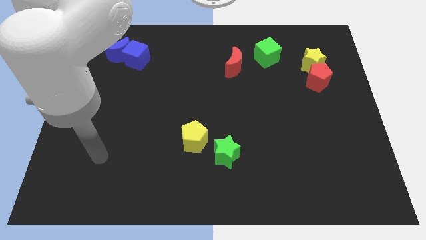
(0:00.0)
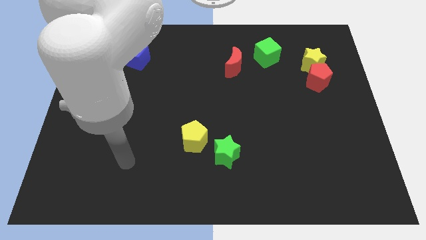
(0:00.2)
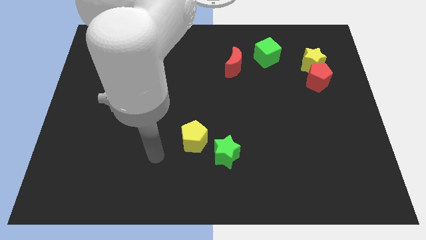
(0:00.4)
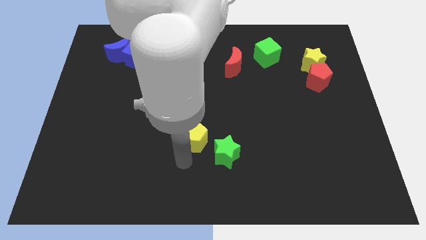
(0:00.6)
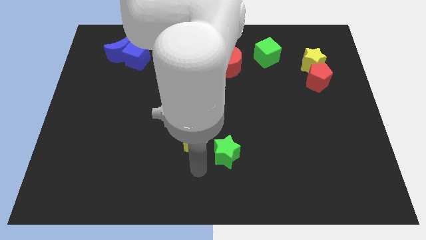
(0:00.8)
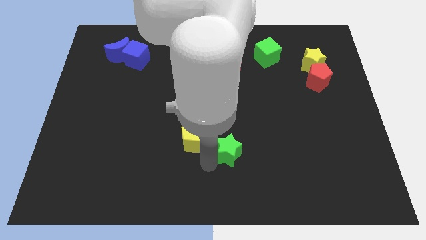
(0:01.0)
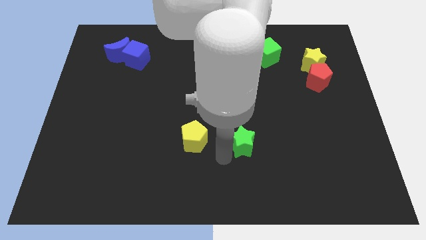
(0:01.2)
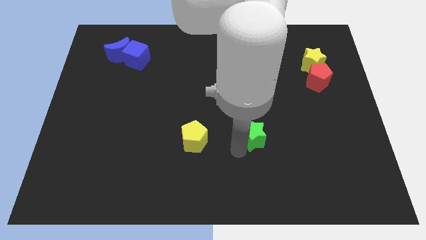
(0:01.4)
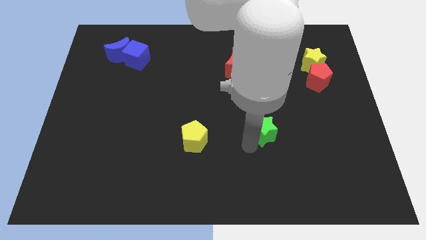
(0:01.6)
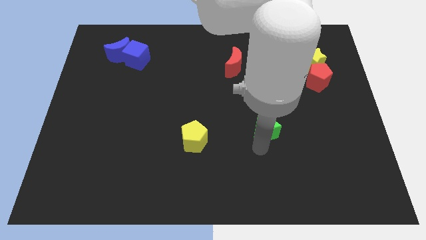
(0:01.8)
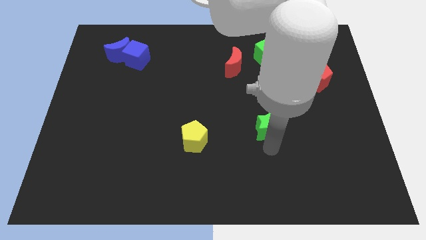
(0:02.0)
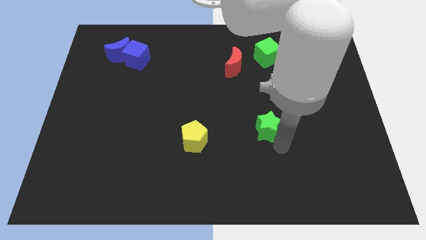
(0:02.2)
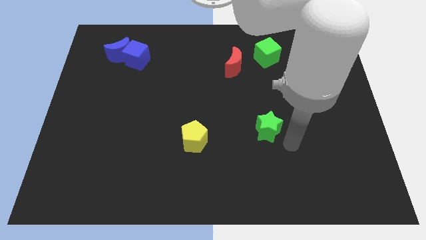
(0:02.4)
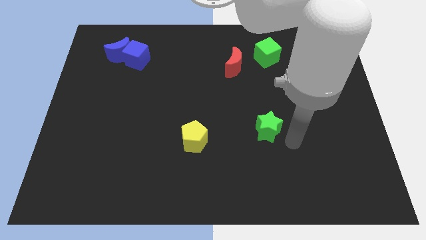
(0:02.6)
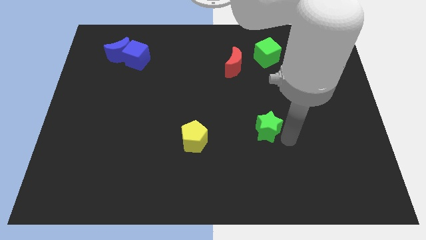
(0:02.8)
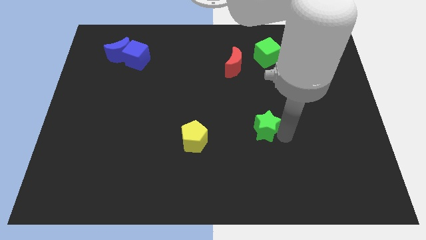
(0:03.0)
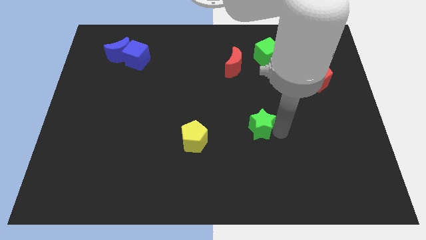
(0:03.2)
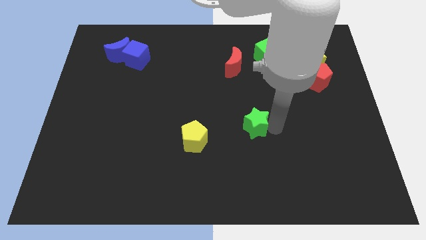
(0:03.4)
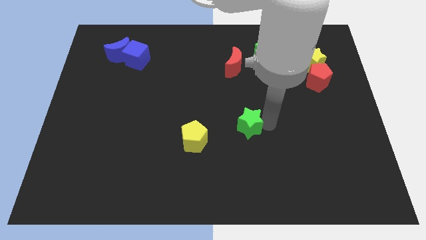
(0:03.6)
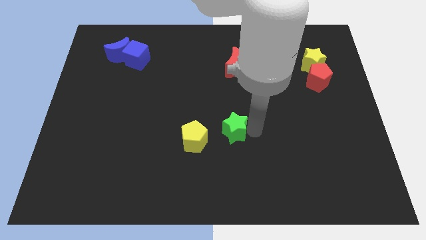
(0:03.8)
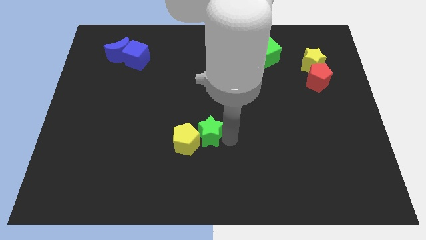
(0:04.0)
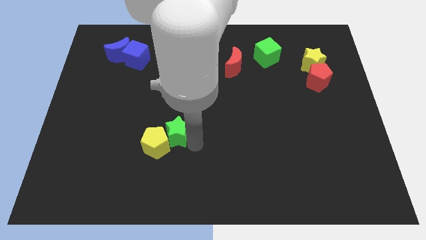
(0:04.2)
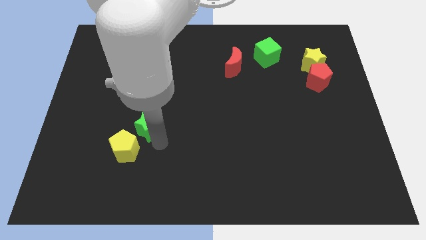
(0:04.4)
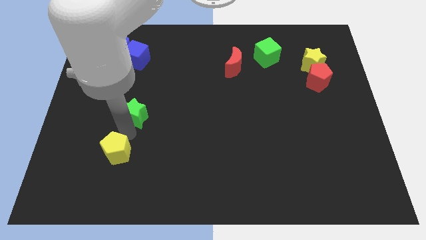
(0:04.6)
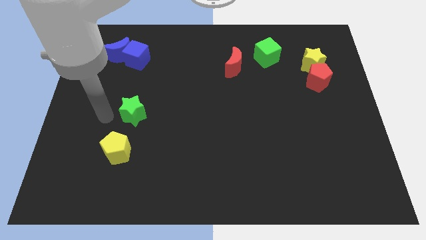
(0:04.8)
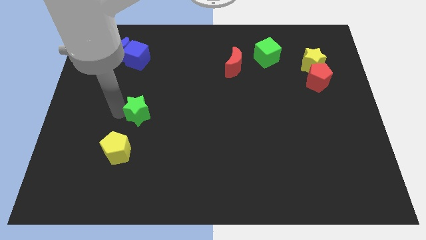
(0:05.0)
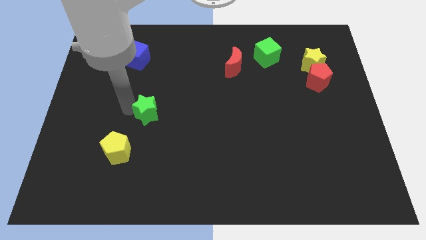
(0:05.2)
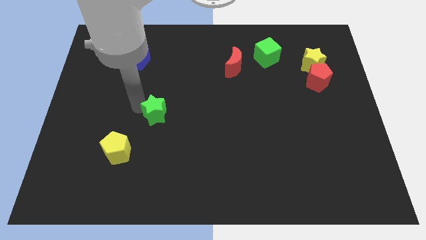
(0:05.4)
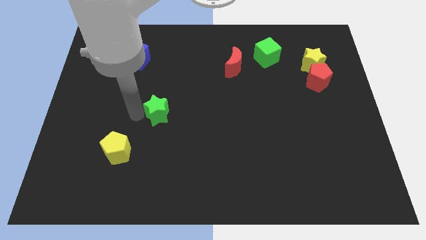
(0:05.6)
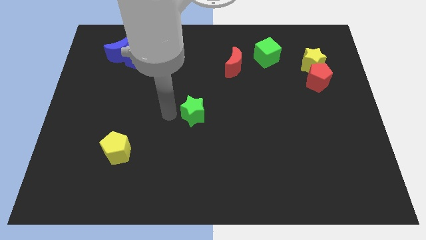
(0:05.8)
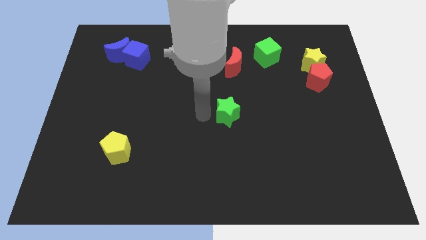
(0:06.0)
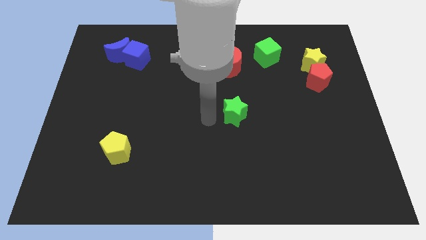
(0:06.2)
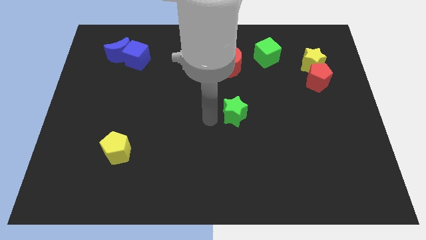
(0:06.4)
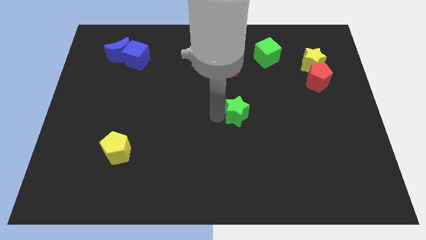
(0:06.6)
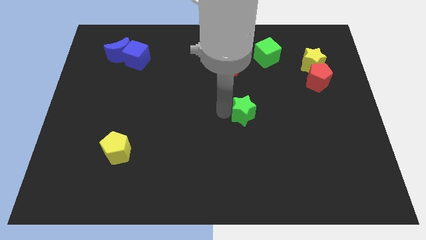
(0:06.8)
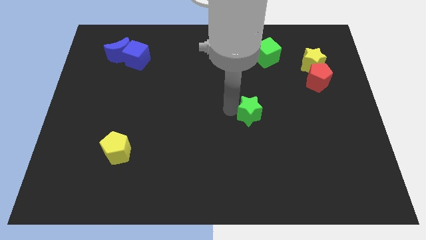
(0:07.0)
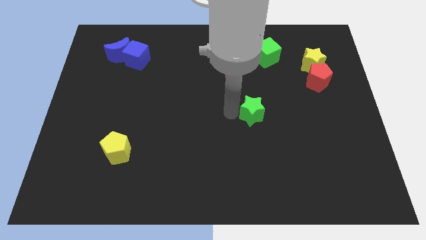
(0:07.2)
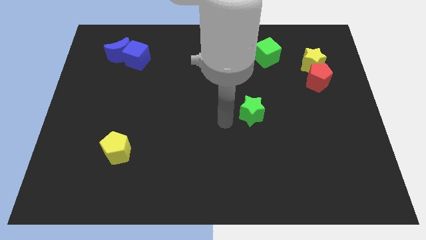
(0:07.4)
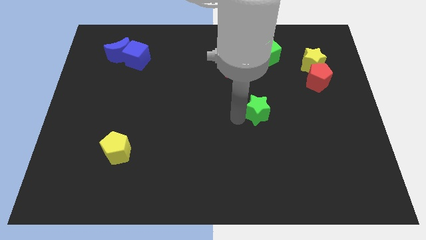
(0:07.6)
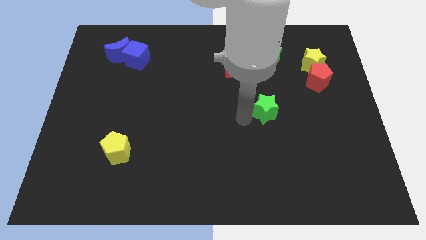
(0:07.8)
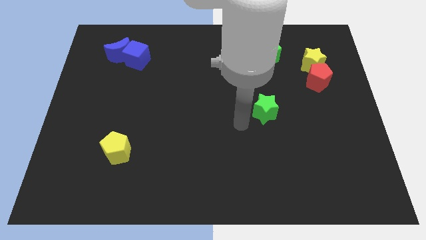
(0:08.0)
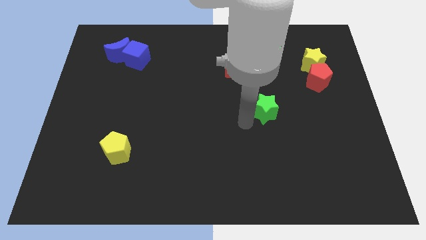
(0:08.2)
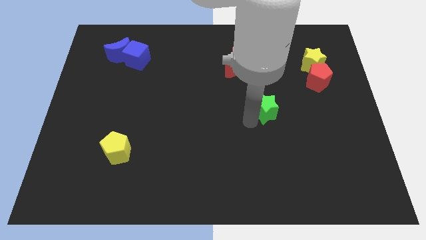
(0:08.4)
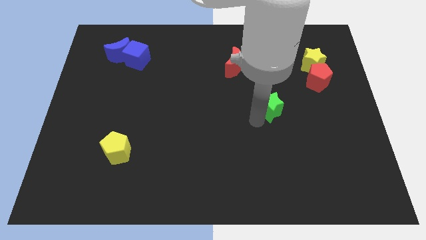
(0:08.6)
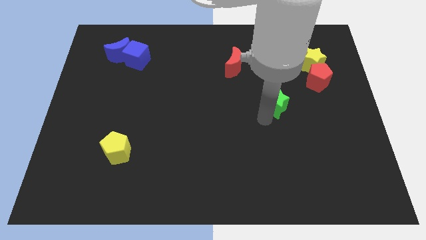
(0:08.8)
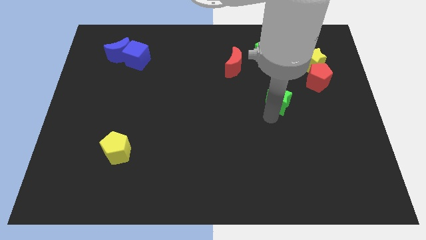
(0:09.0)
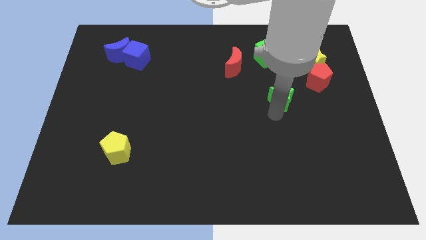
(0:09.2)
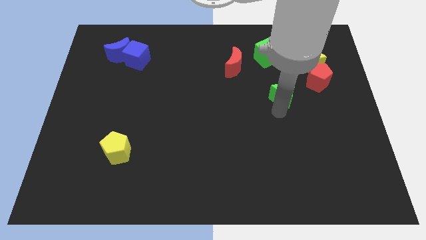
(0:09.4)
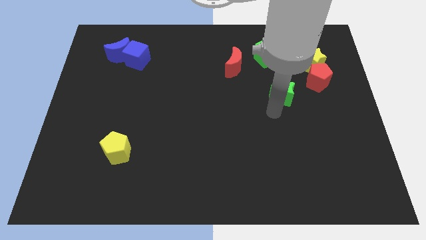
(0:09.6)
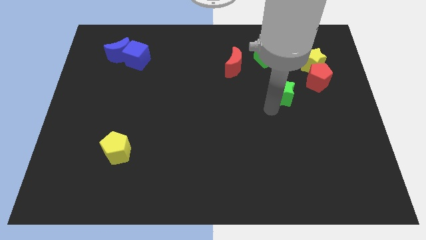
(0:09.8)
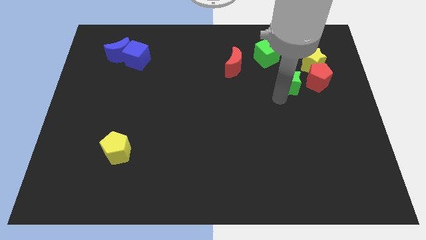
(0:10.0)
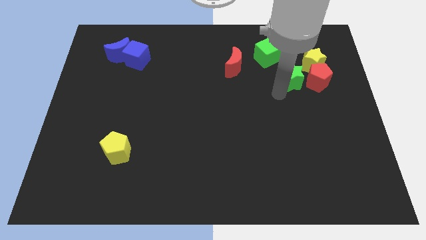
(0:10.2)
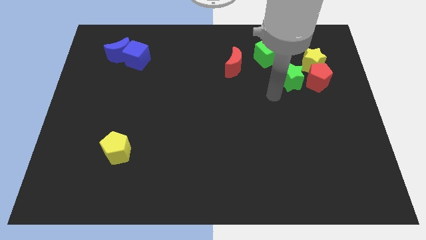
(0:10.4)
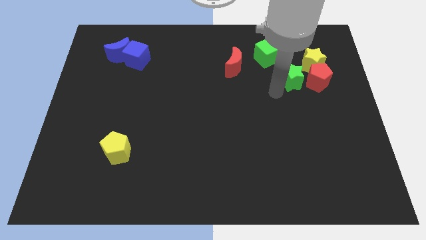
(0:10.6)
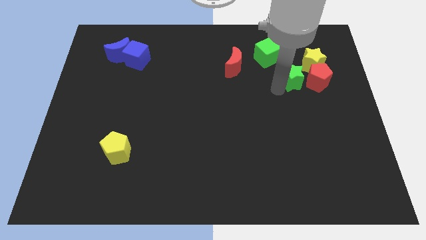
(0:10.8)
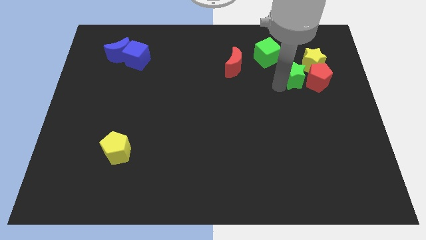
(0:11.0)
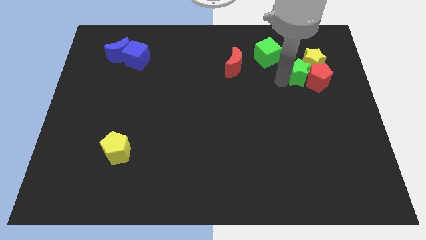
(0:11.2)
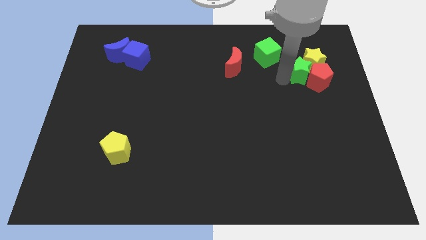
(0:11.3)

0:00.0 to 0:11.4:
move the green star to the yellow star

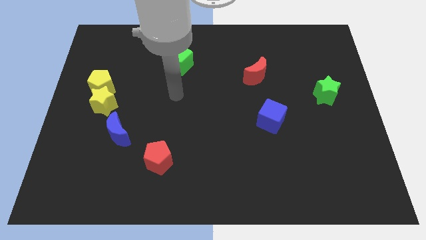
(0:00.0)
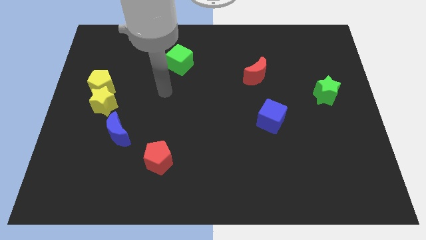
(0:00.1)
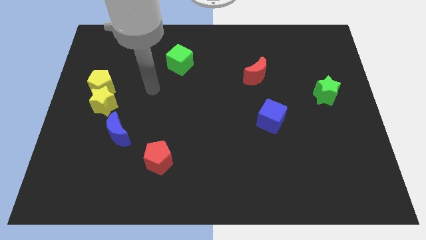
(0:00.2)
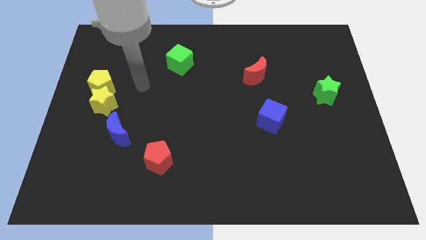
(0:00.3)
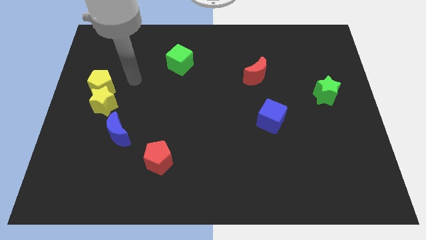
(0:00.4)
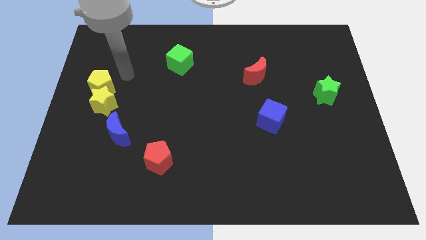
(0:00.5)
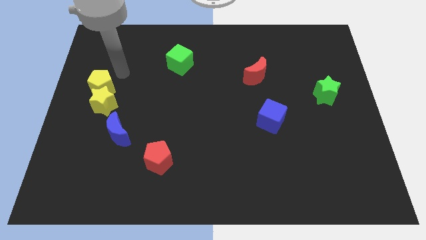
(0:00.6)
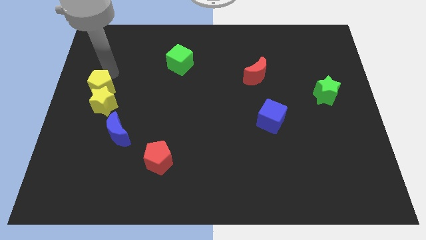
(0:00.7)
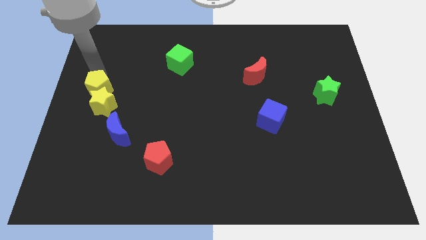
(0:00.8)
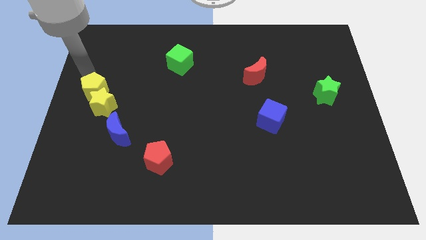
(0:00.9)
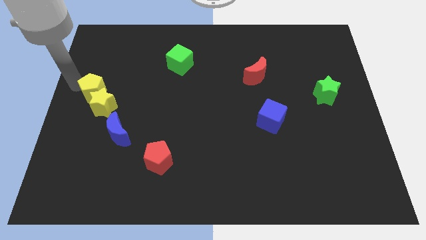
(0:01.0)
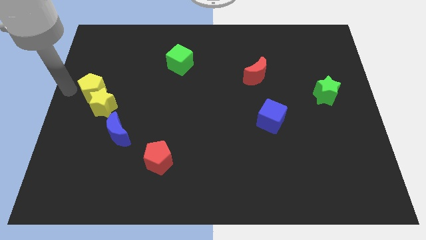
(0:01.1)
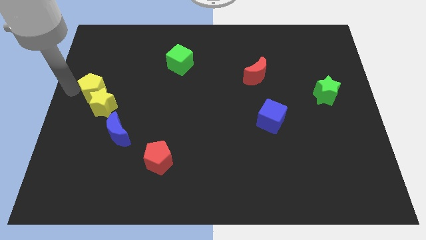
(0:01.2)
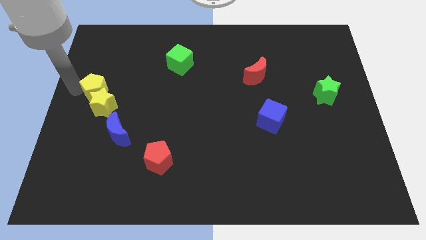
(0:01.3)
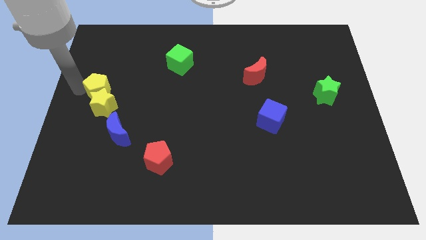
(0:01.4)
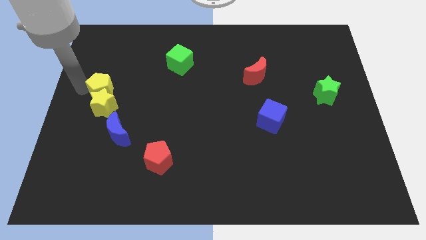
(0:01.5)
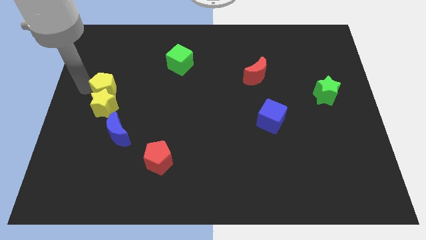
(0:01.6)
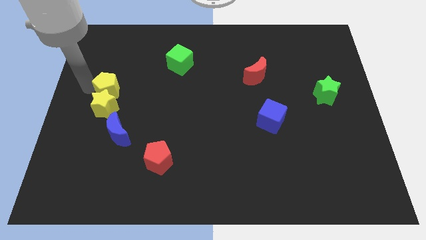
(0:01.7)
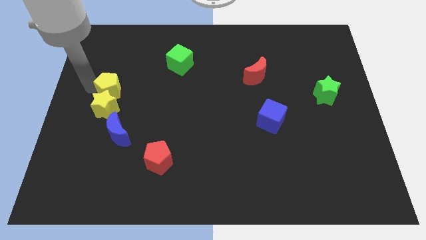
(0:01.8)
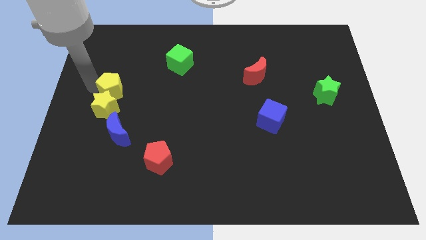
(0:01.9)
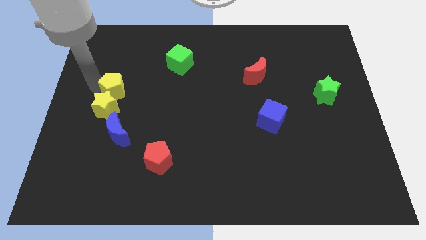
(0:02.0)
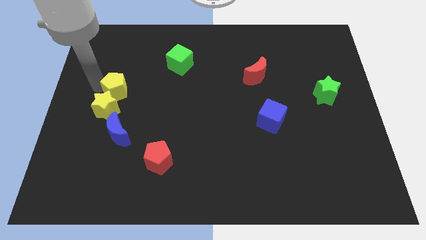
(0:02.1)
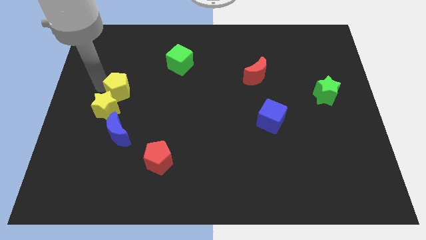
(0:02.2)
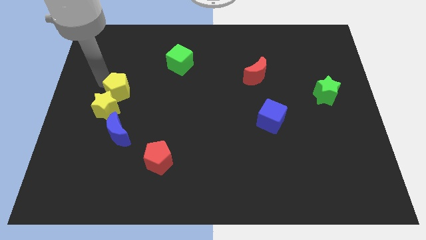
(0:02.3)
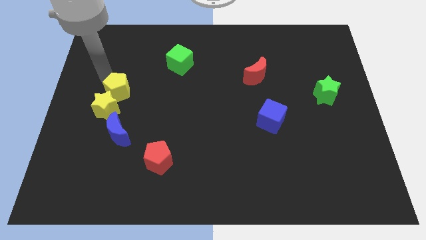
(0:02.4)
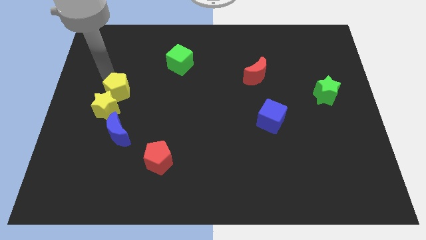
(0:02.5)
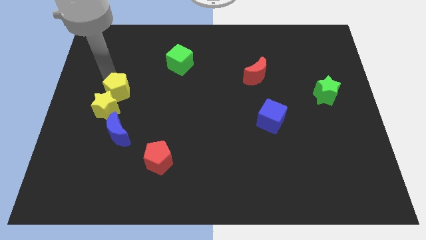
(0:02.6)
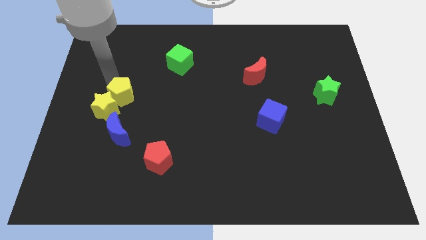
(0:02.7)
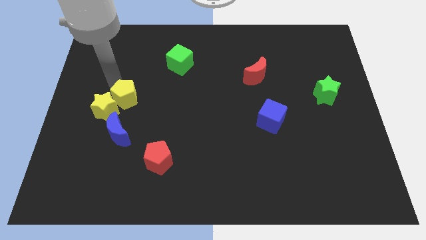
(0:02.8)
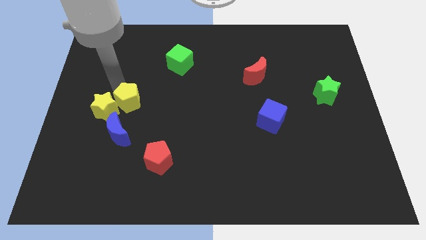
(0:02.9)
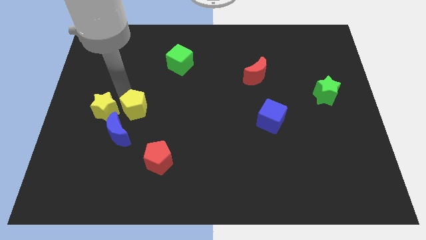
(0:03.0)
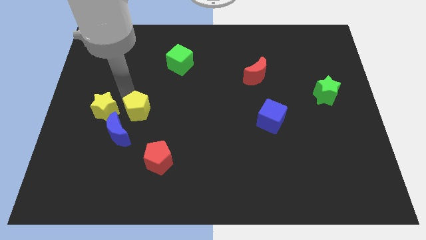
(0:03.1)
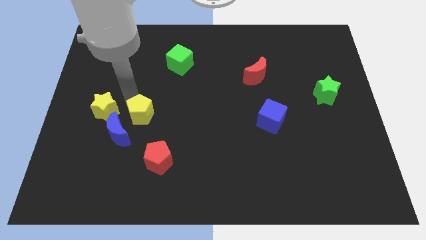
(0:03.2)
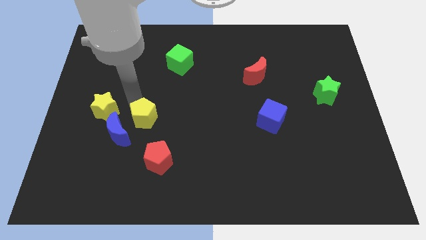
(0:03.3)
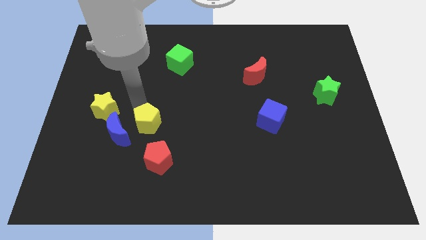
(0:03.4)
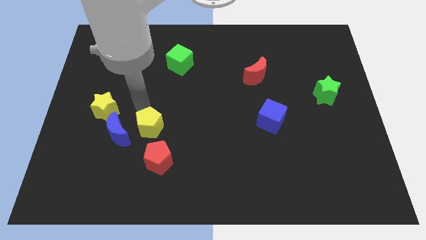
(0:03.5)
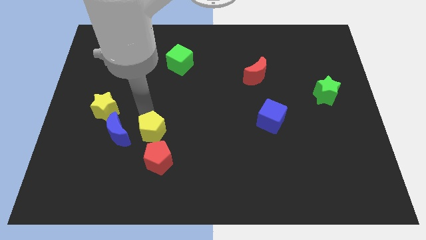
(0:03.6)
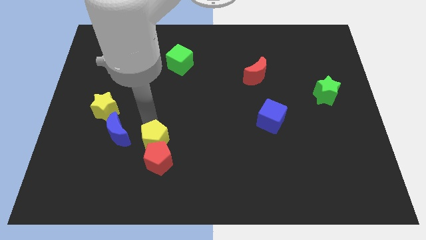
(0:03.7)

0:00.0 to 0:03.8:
move the yellow pentagon next to the red pentagon
